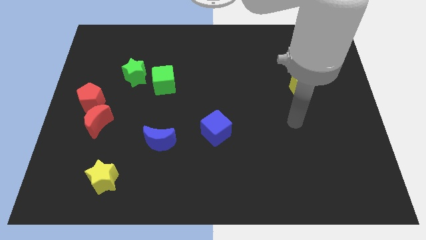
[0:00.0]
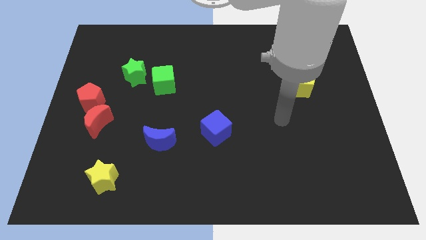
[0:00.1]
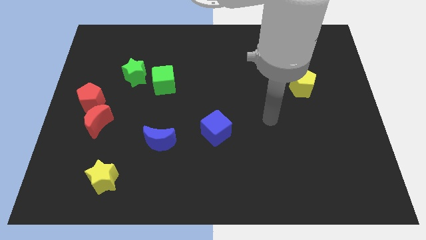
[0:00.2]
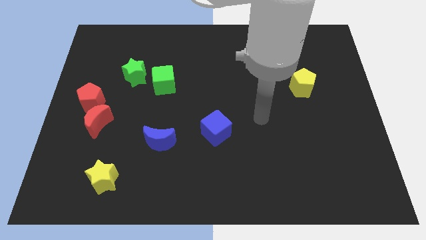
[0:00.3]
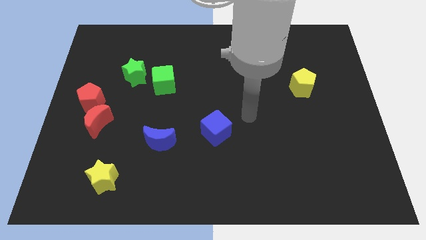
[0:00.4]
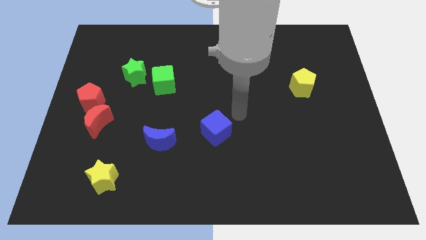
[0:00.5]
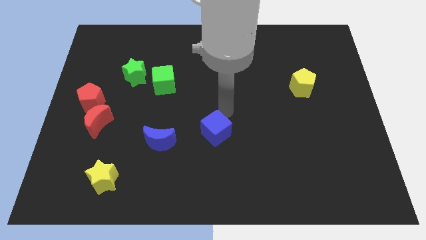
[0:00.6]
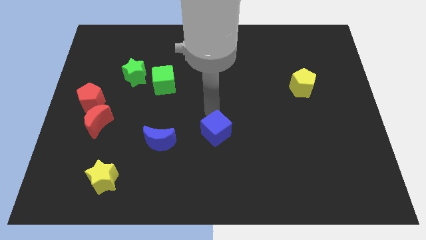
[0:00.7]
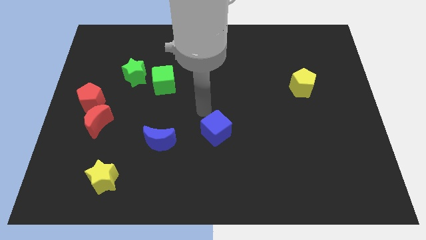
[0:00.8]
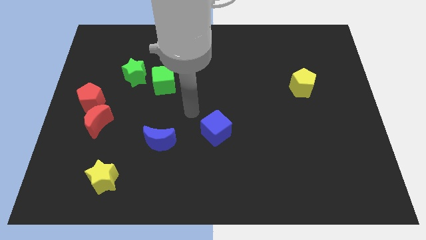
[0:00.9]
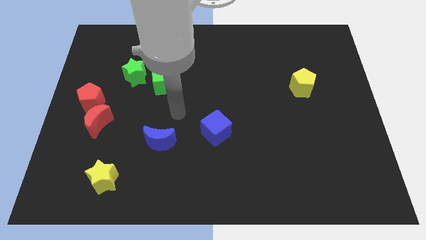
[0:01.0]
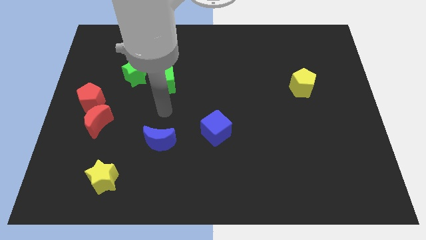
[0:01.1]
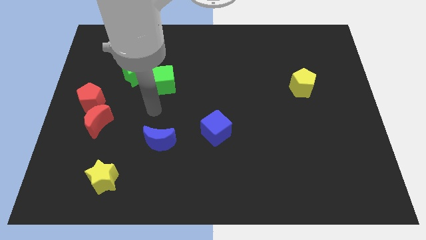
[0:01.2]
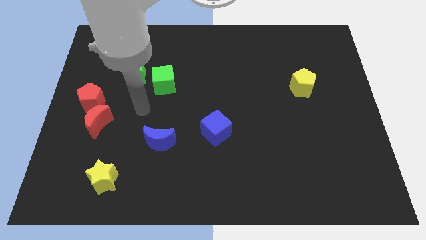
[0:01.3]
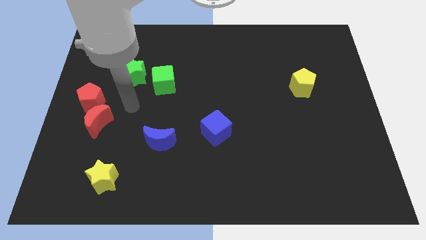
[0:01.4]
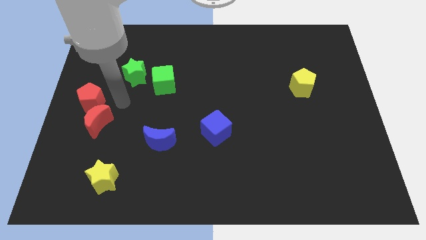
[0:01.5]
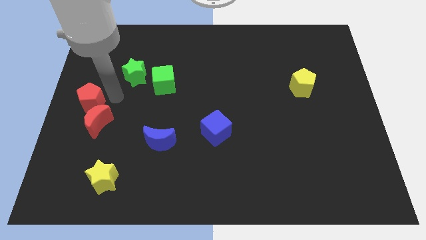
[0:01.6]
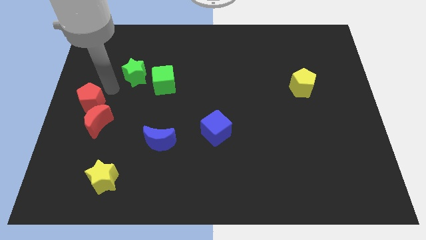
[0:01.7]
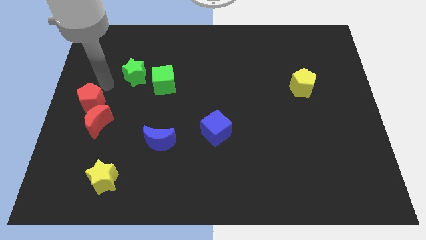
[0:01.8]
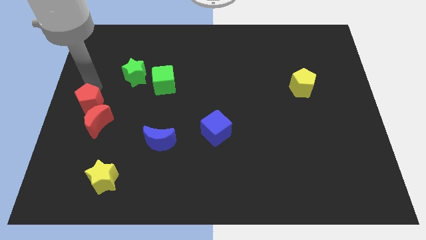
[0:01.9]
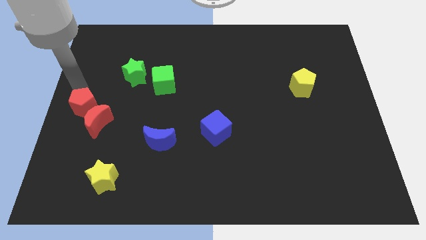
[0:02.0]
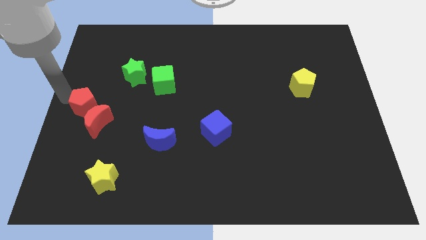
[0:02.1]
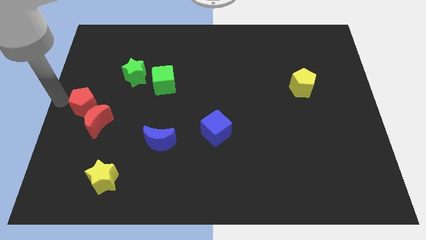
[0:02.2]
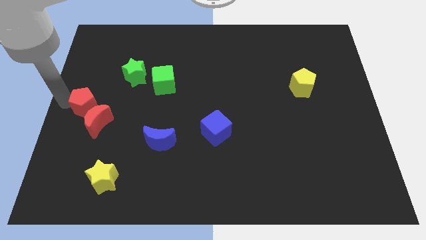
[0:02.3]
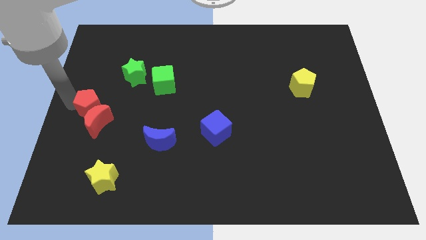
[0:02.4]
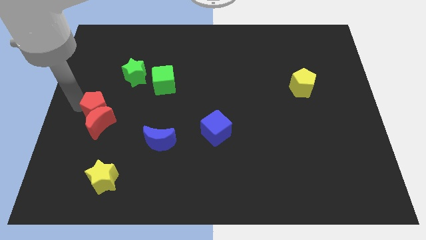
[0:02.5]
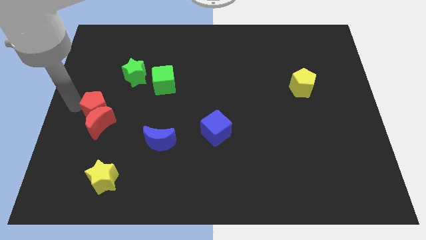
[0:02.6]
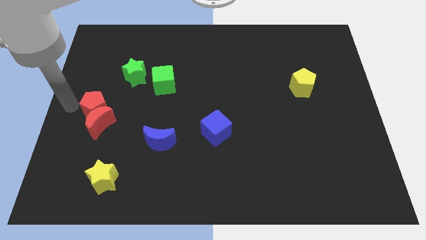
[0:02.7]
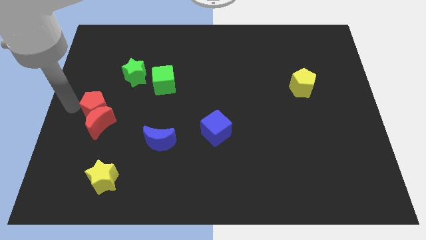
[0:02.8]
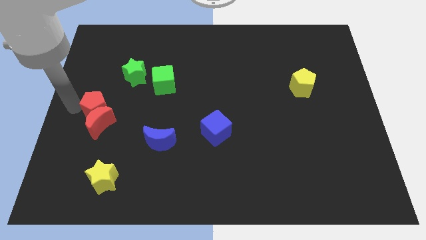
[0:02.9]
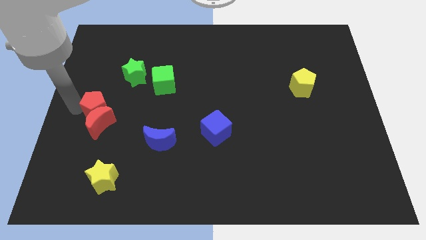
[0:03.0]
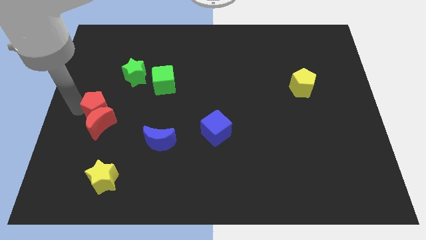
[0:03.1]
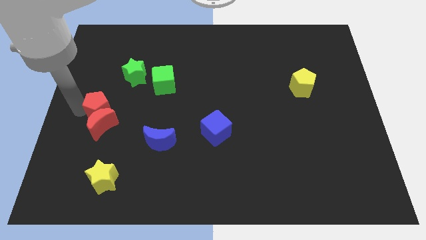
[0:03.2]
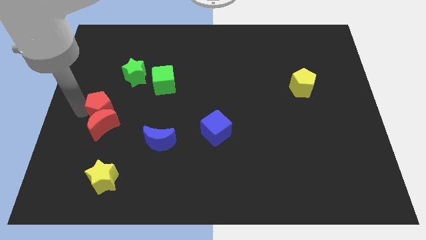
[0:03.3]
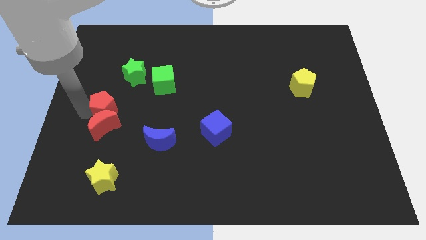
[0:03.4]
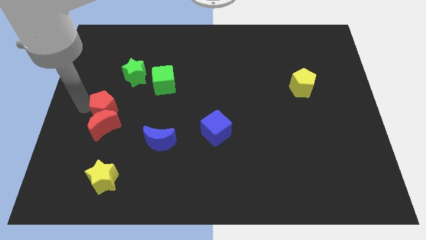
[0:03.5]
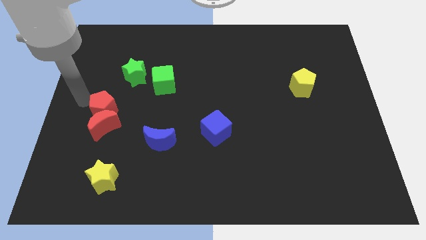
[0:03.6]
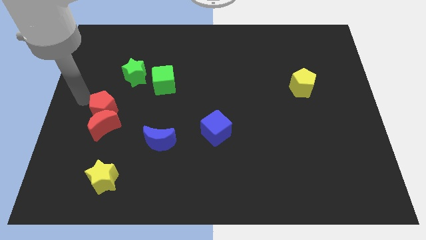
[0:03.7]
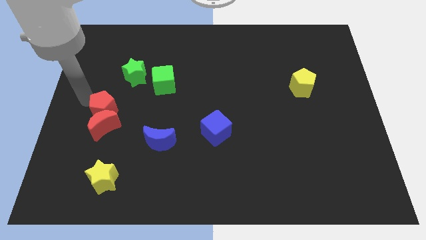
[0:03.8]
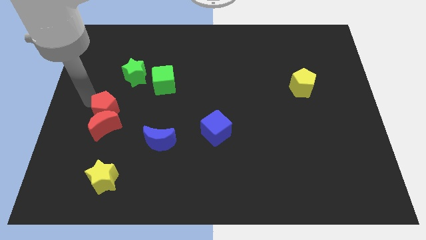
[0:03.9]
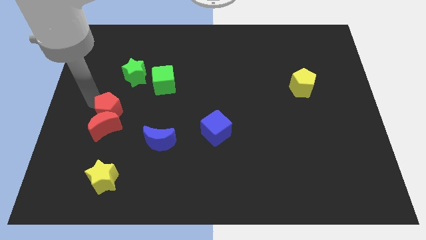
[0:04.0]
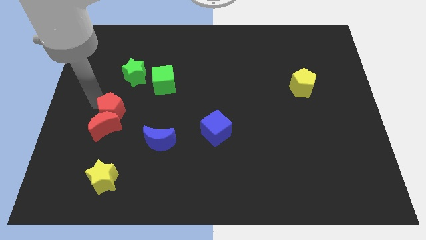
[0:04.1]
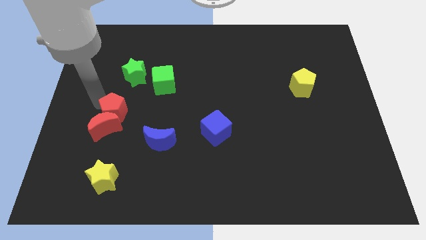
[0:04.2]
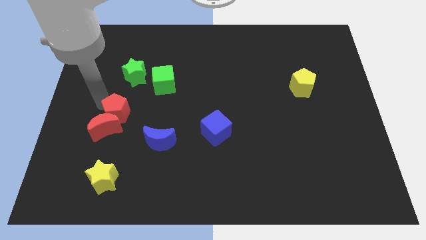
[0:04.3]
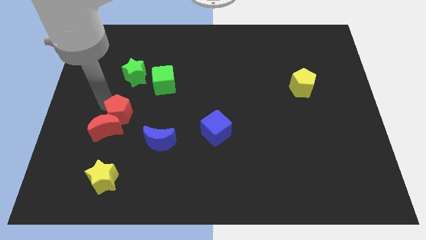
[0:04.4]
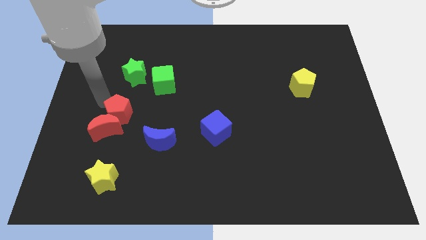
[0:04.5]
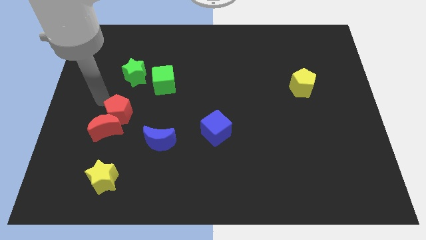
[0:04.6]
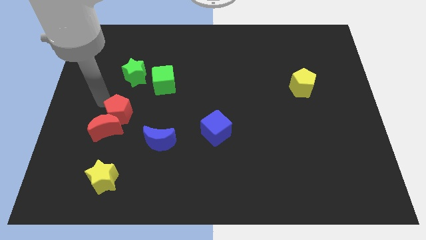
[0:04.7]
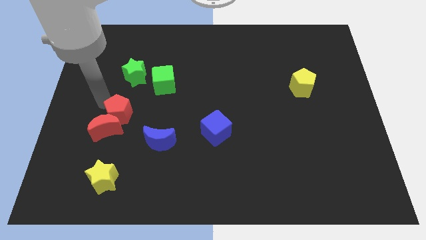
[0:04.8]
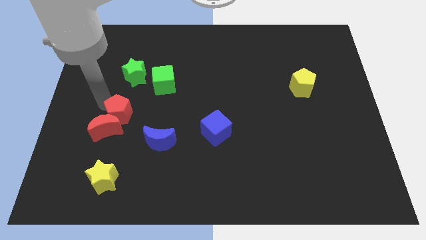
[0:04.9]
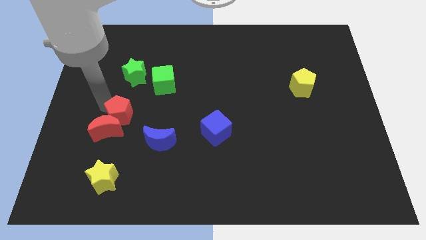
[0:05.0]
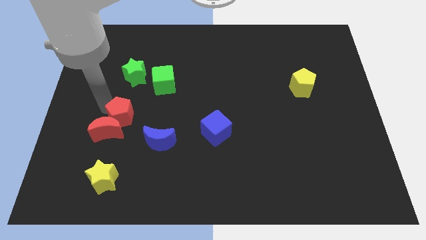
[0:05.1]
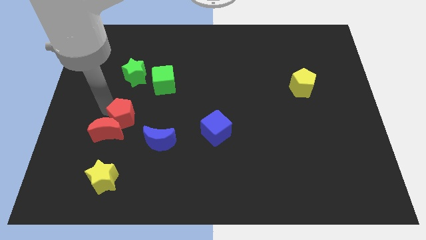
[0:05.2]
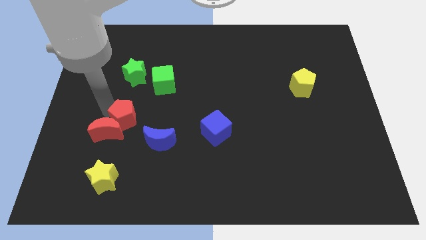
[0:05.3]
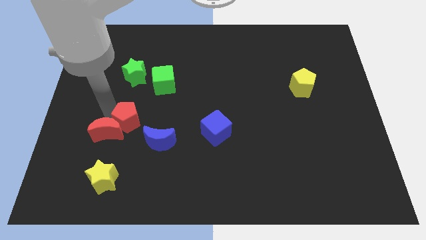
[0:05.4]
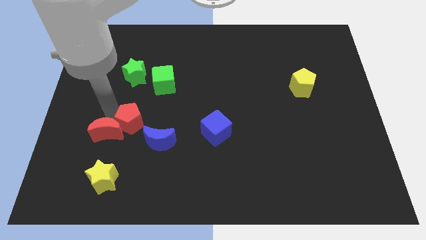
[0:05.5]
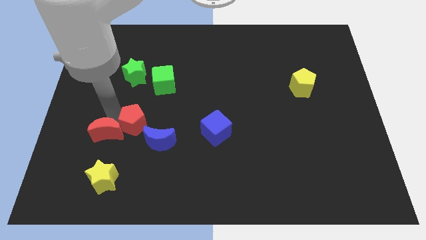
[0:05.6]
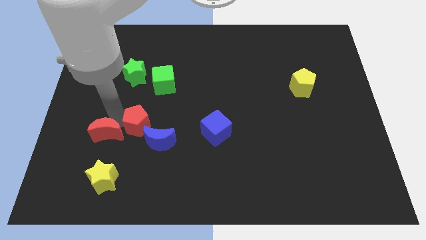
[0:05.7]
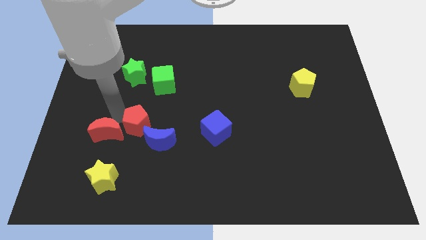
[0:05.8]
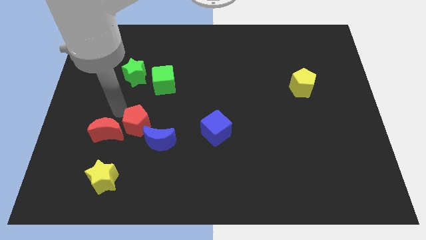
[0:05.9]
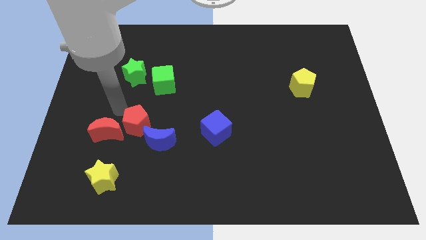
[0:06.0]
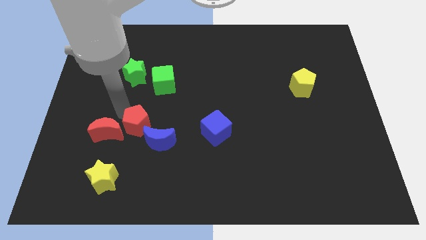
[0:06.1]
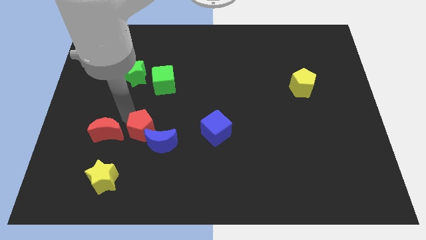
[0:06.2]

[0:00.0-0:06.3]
push the red pentagon to the blue moon

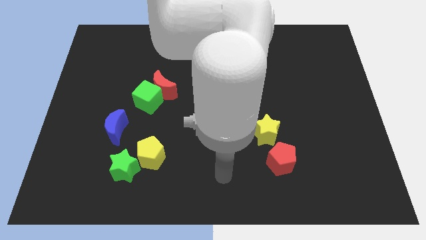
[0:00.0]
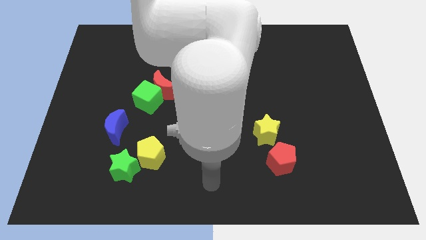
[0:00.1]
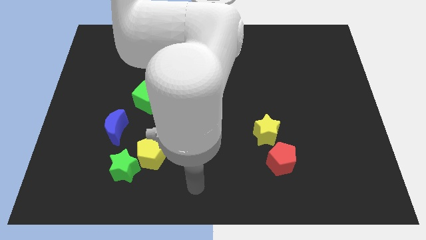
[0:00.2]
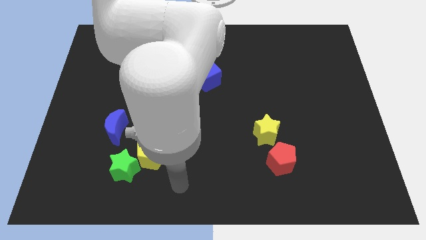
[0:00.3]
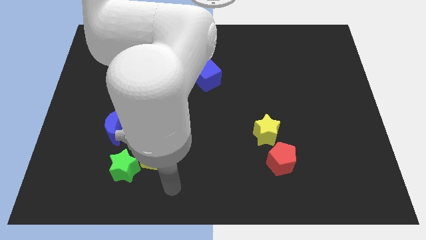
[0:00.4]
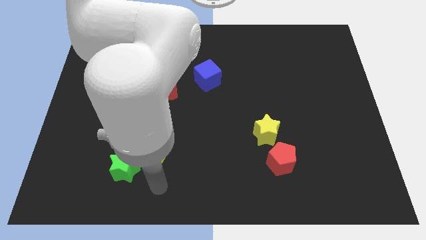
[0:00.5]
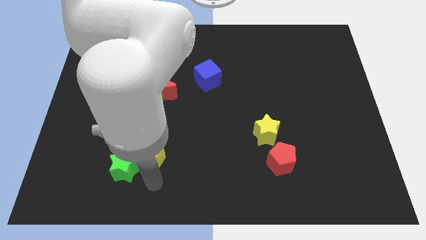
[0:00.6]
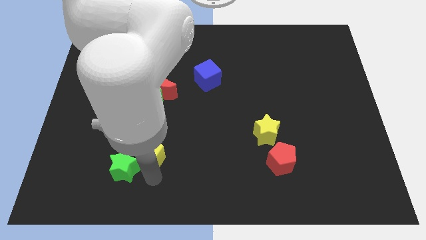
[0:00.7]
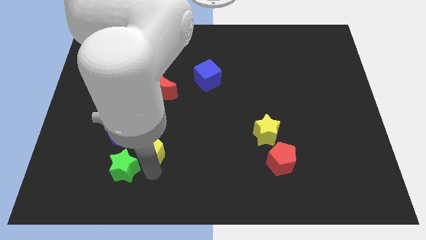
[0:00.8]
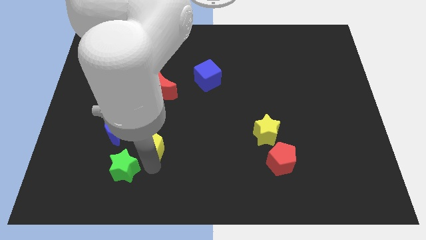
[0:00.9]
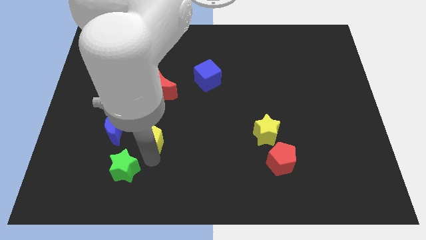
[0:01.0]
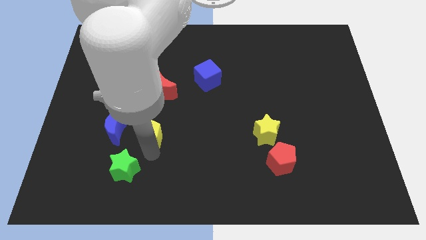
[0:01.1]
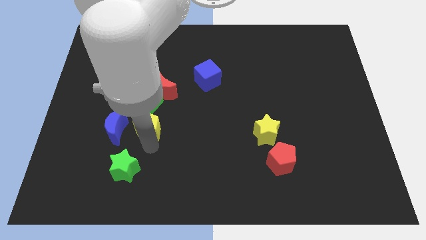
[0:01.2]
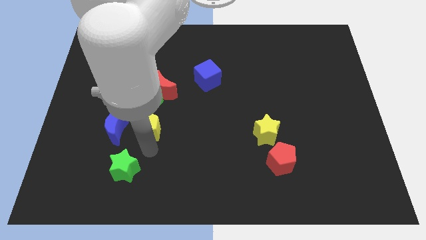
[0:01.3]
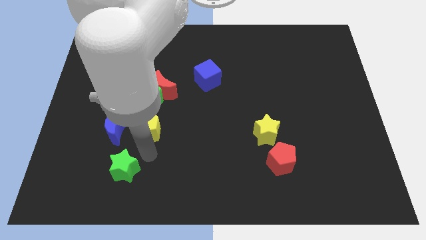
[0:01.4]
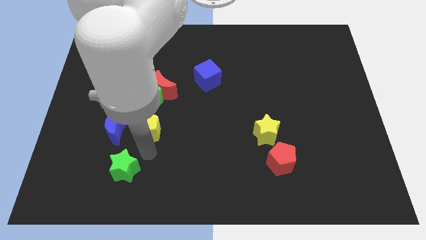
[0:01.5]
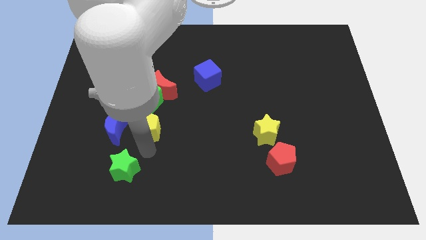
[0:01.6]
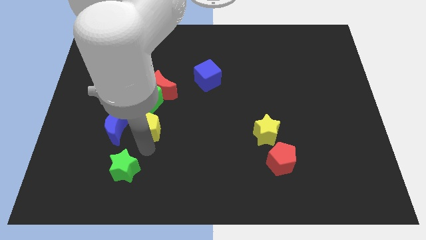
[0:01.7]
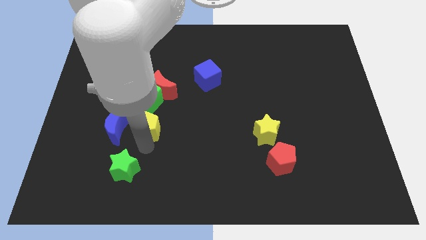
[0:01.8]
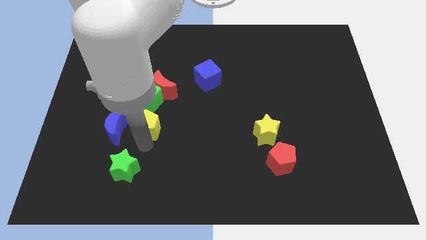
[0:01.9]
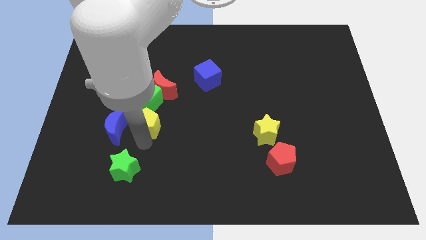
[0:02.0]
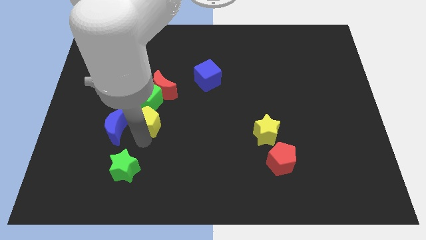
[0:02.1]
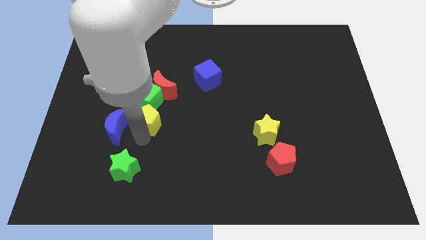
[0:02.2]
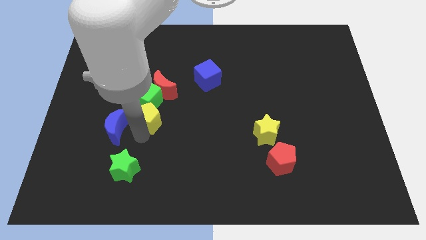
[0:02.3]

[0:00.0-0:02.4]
move the yellow pentagon next to the green cube
